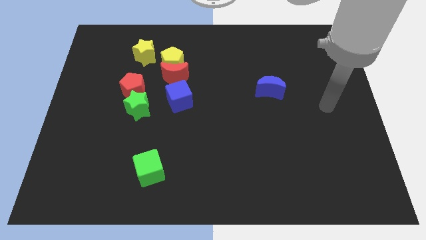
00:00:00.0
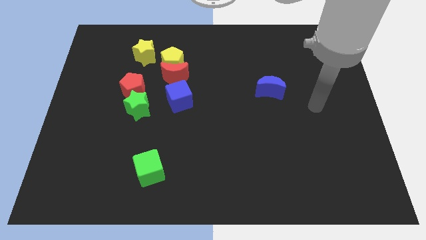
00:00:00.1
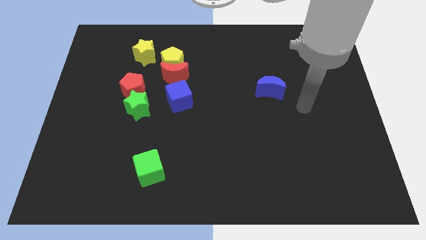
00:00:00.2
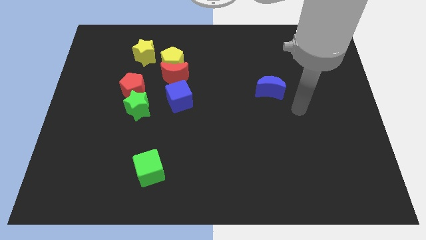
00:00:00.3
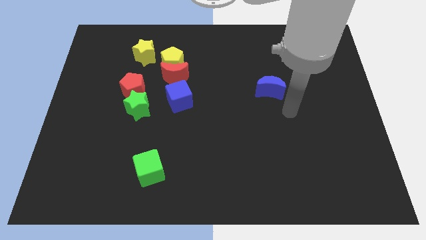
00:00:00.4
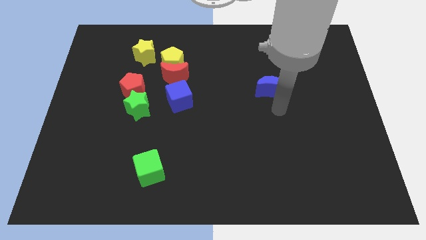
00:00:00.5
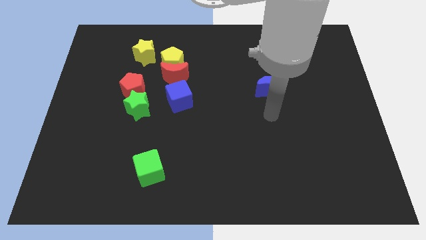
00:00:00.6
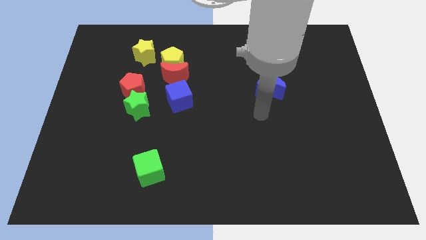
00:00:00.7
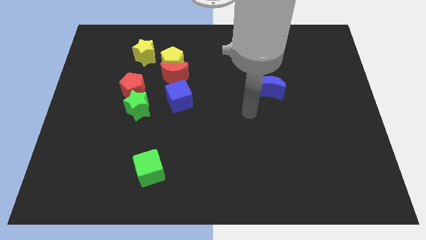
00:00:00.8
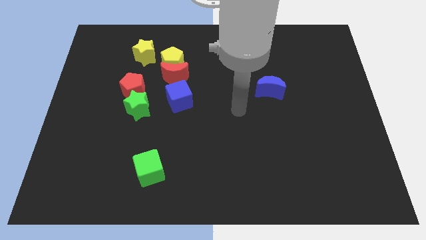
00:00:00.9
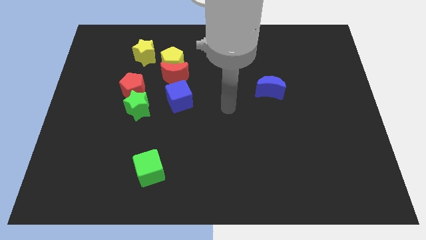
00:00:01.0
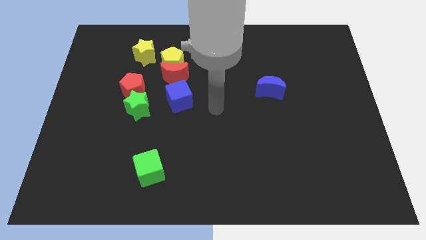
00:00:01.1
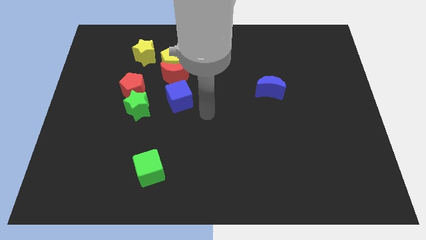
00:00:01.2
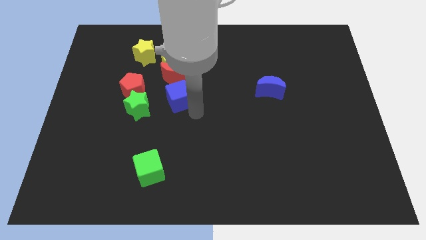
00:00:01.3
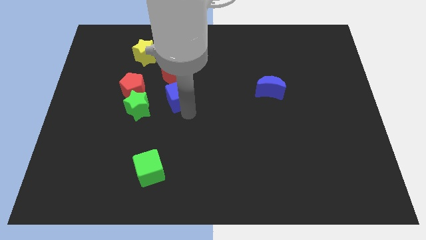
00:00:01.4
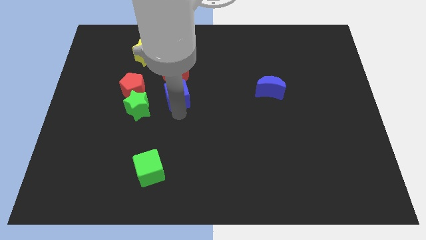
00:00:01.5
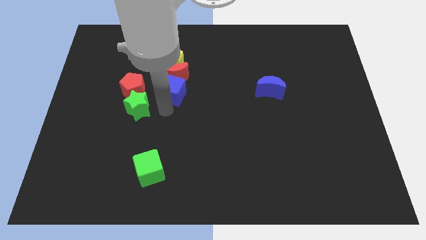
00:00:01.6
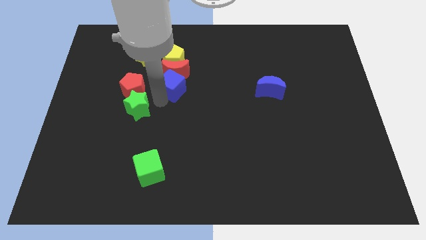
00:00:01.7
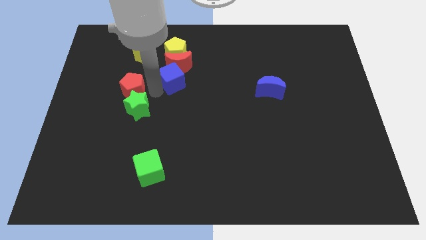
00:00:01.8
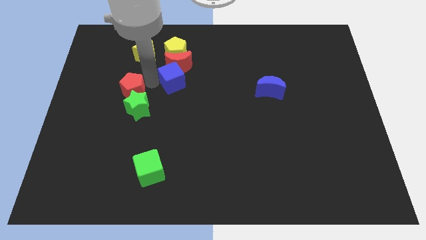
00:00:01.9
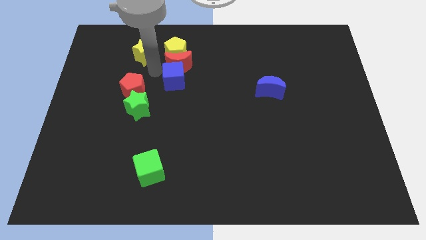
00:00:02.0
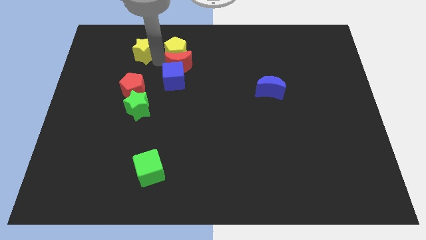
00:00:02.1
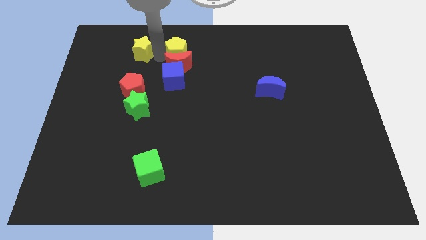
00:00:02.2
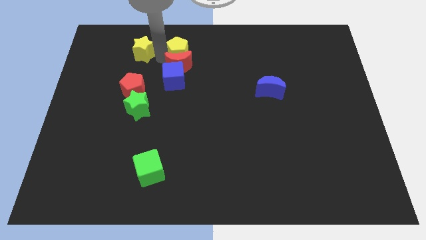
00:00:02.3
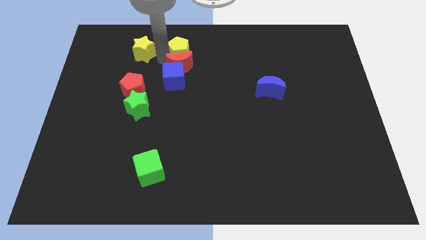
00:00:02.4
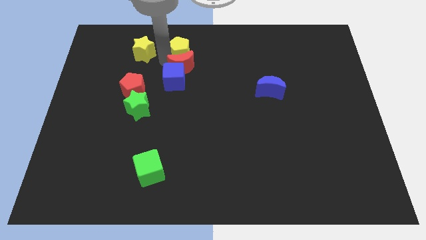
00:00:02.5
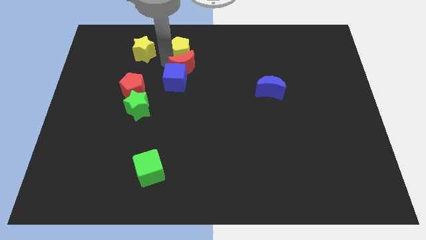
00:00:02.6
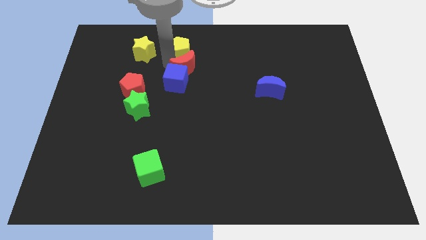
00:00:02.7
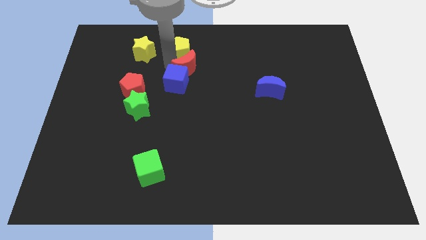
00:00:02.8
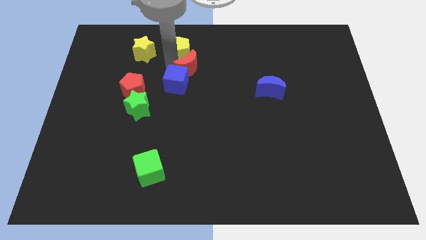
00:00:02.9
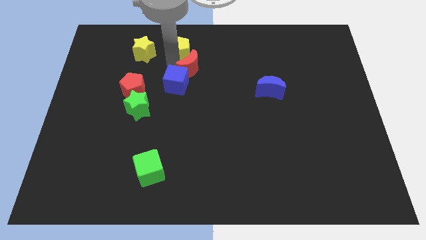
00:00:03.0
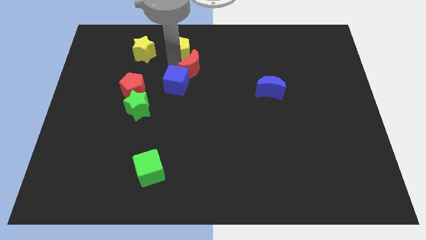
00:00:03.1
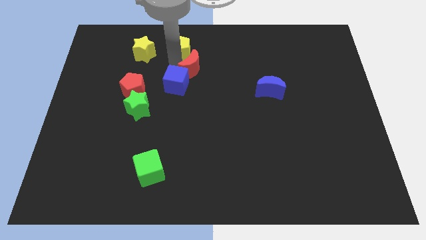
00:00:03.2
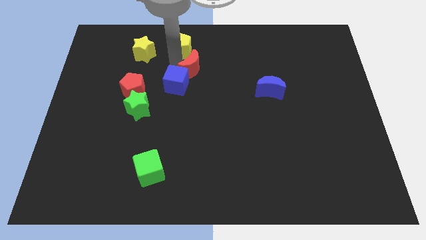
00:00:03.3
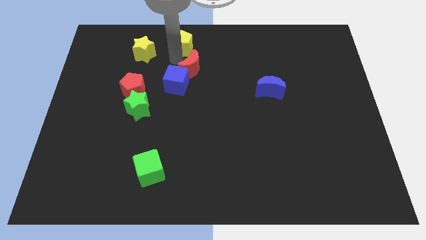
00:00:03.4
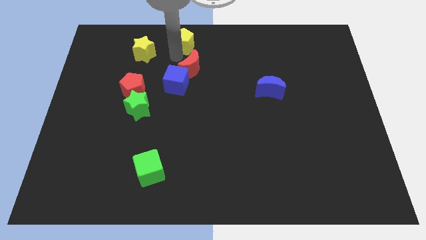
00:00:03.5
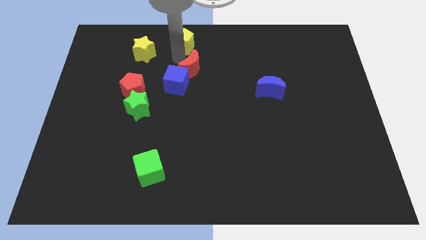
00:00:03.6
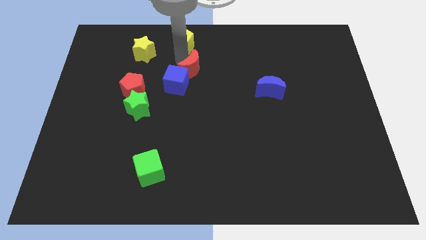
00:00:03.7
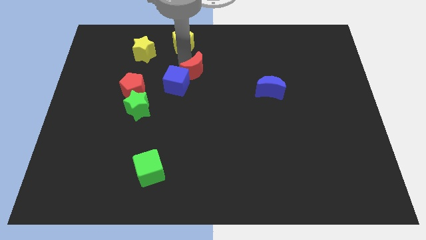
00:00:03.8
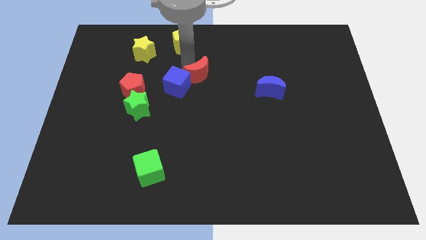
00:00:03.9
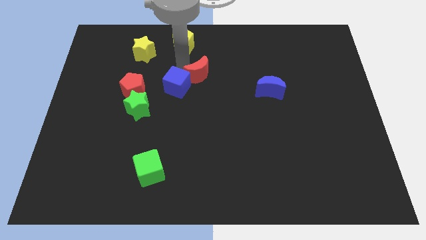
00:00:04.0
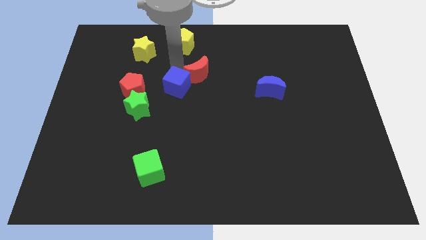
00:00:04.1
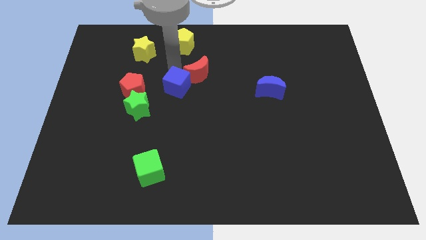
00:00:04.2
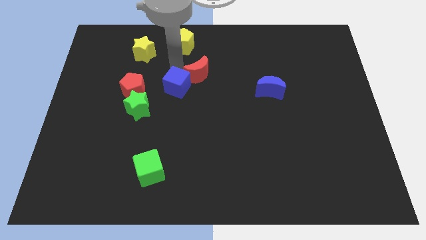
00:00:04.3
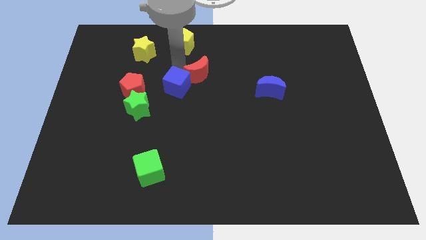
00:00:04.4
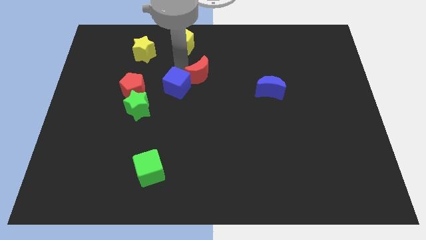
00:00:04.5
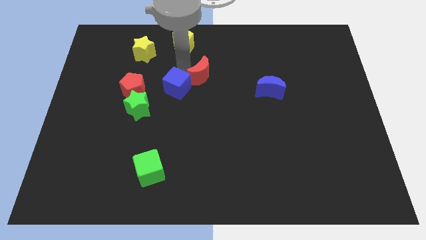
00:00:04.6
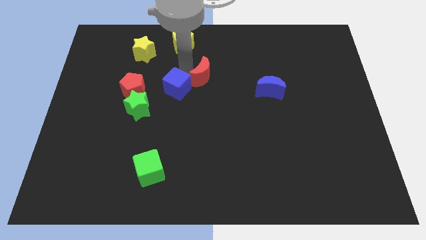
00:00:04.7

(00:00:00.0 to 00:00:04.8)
push the red moon to the right a little bit

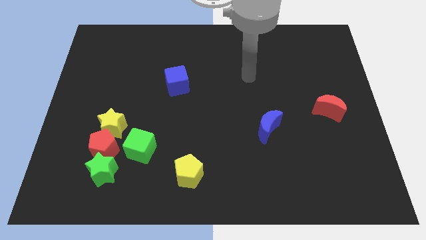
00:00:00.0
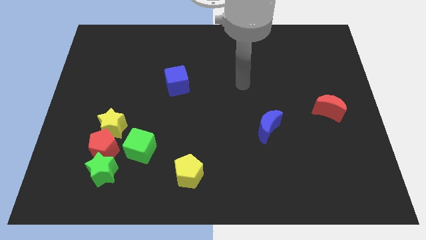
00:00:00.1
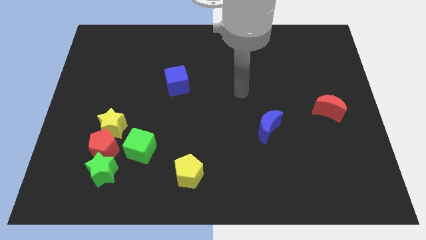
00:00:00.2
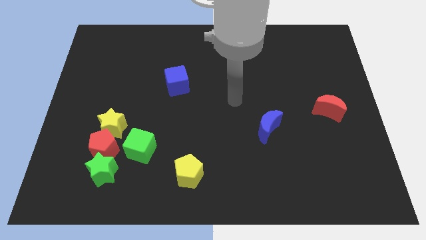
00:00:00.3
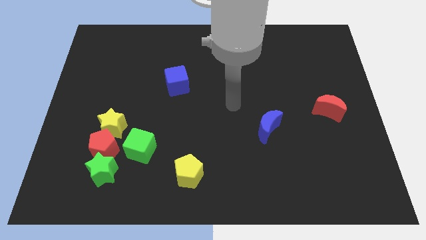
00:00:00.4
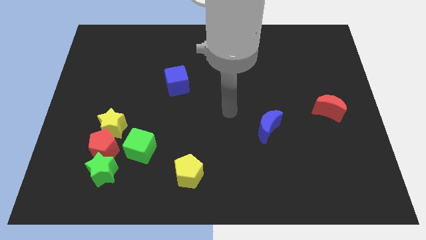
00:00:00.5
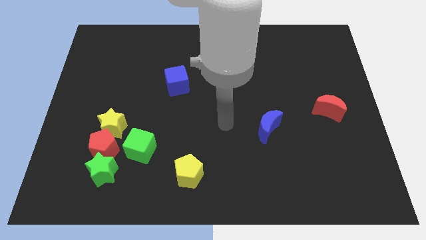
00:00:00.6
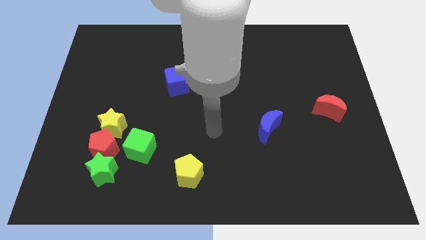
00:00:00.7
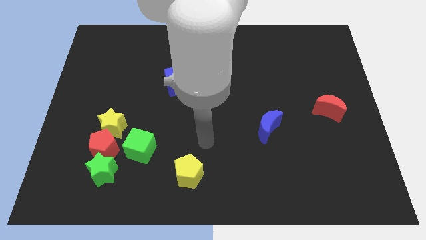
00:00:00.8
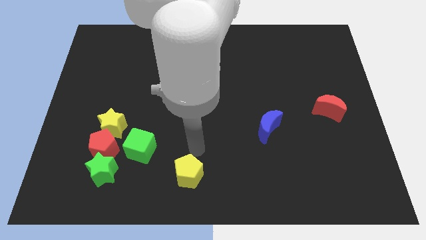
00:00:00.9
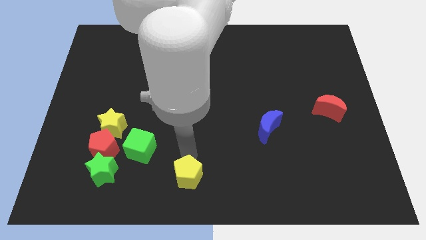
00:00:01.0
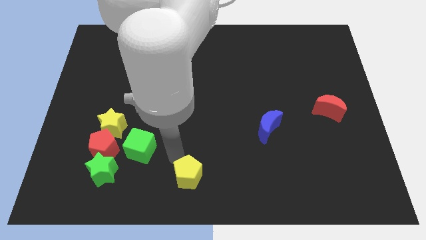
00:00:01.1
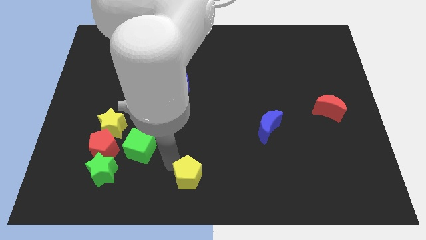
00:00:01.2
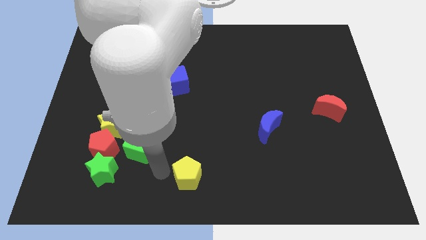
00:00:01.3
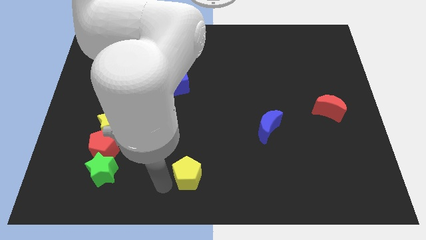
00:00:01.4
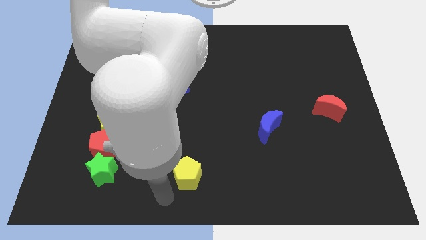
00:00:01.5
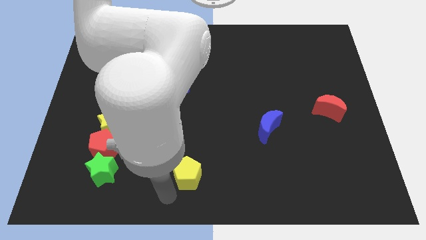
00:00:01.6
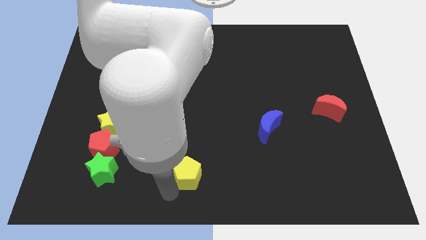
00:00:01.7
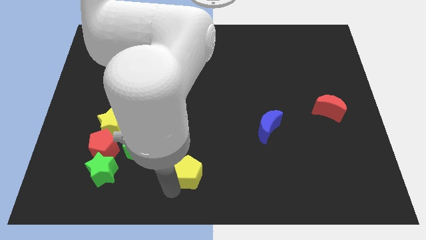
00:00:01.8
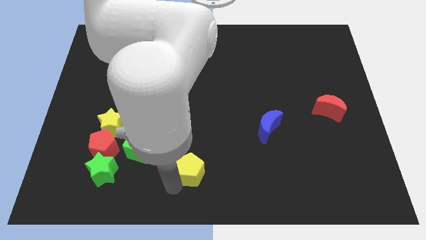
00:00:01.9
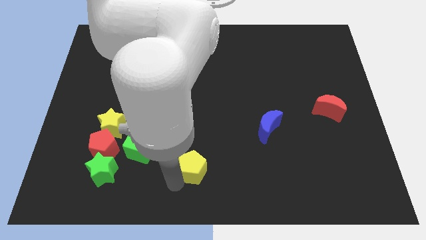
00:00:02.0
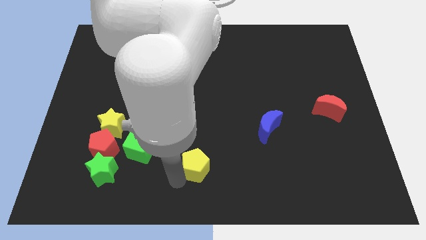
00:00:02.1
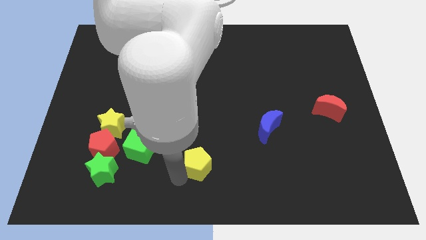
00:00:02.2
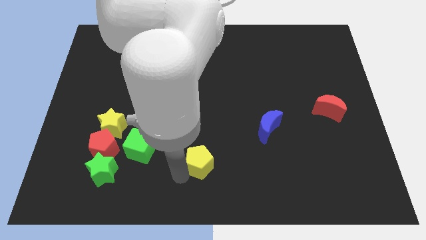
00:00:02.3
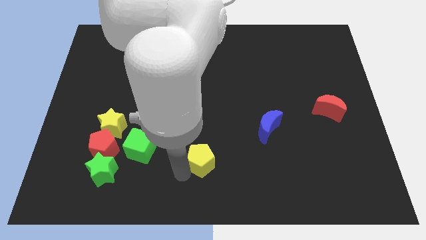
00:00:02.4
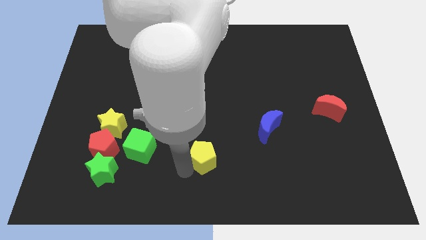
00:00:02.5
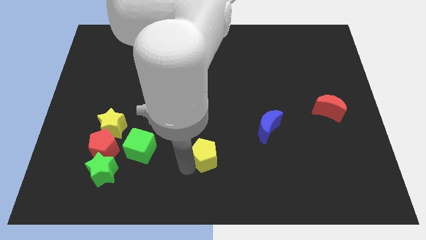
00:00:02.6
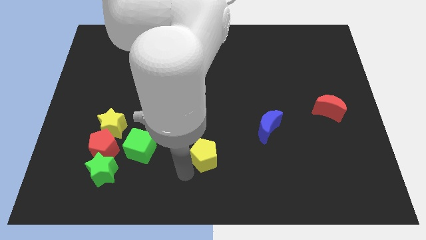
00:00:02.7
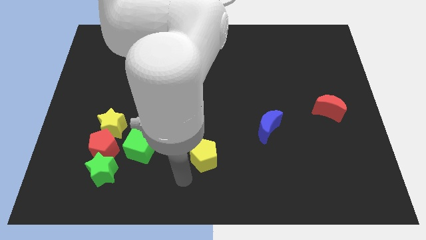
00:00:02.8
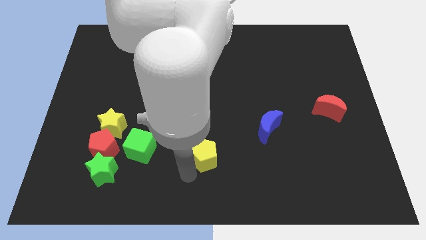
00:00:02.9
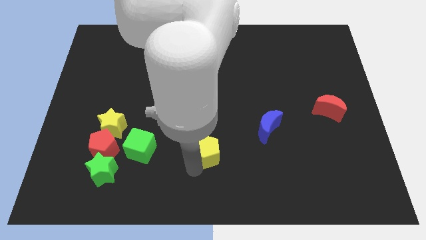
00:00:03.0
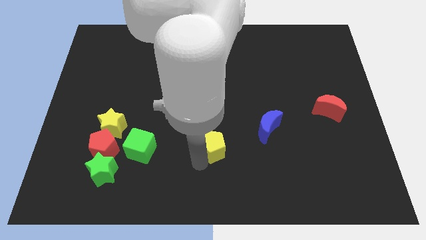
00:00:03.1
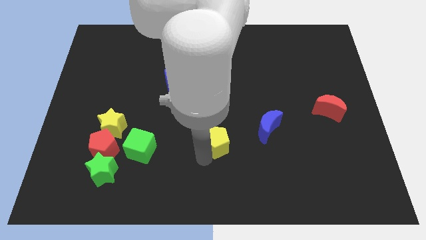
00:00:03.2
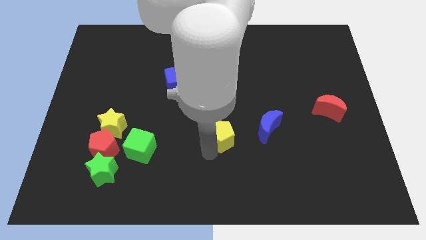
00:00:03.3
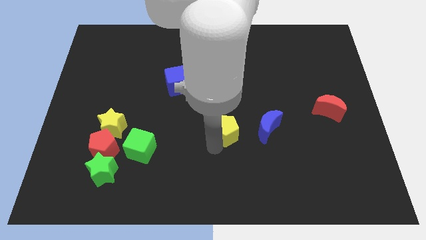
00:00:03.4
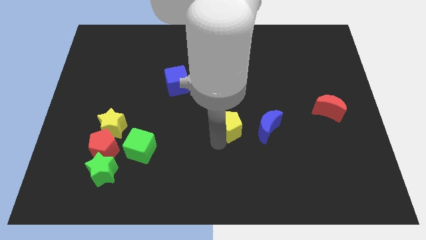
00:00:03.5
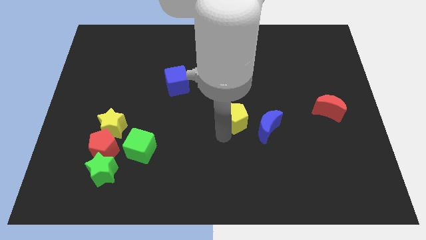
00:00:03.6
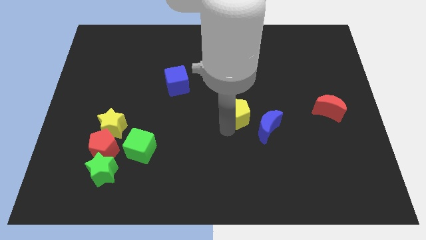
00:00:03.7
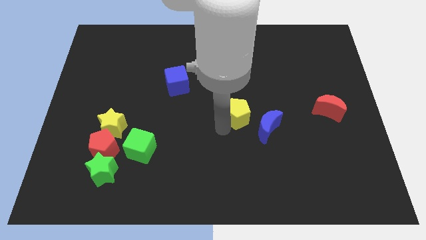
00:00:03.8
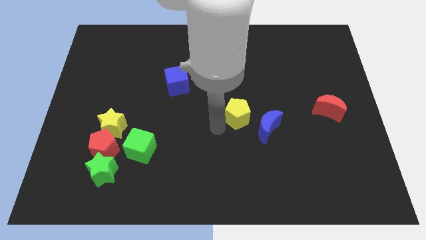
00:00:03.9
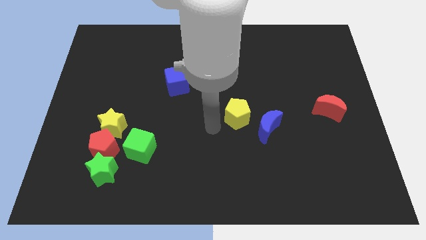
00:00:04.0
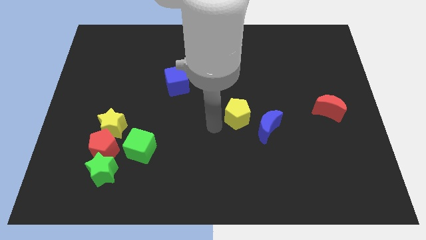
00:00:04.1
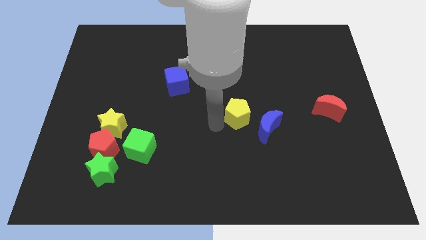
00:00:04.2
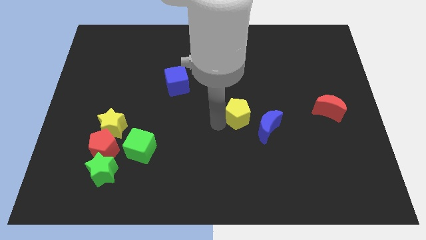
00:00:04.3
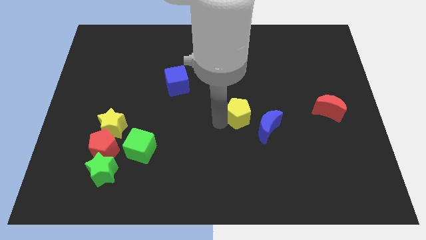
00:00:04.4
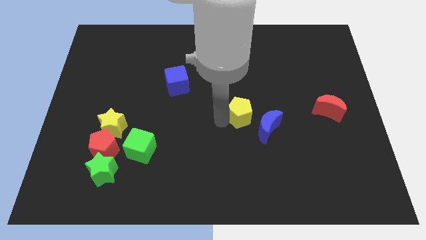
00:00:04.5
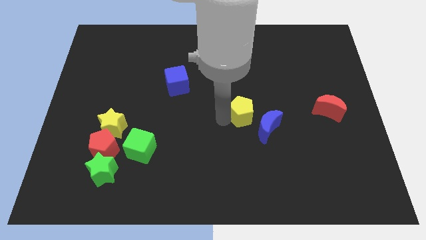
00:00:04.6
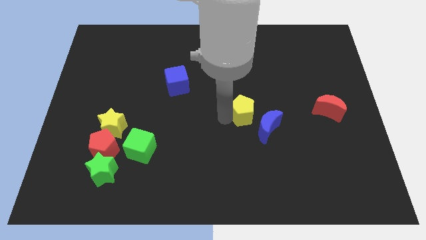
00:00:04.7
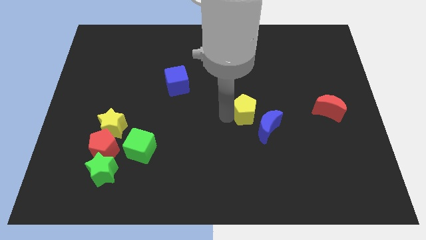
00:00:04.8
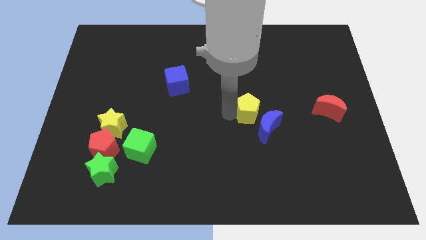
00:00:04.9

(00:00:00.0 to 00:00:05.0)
slide the yellow pentagon upwards and right diagonally
